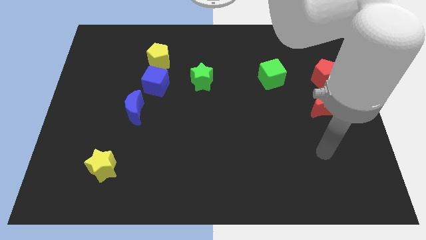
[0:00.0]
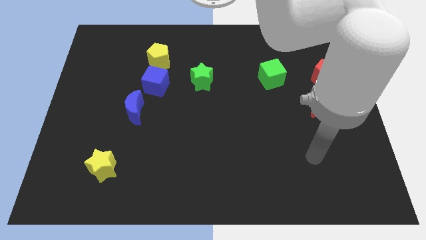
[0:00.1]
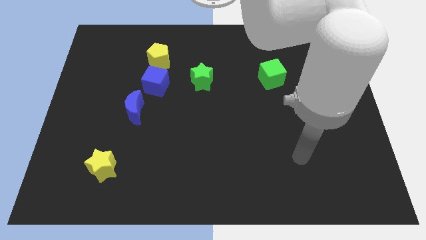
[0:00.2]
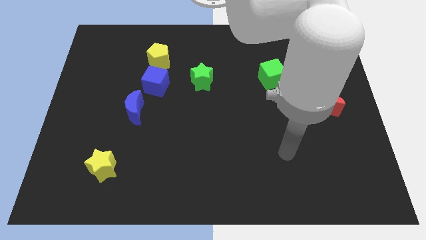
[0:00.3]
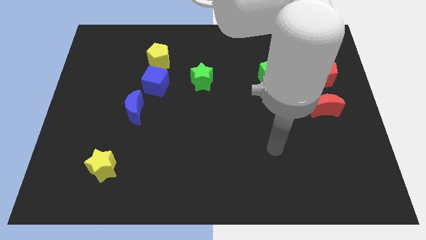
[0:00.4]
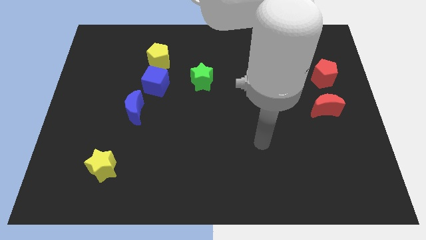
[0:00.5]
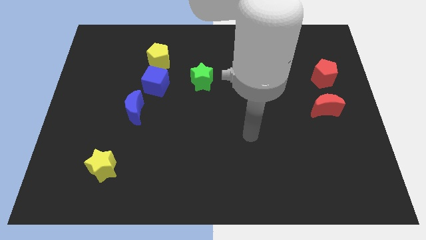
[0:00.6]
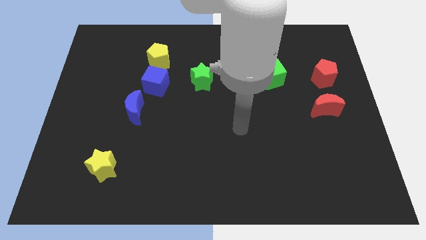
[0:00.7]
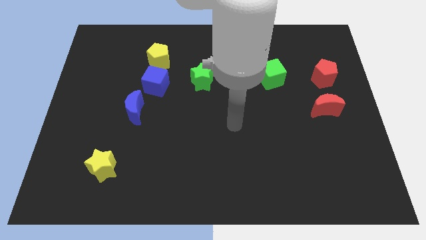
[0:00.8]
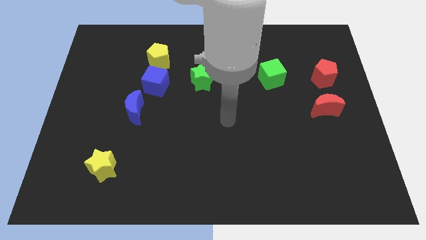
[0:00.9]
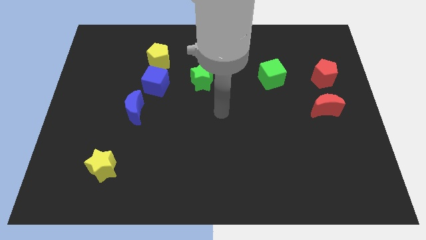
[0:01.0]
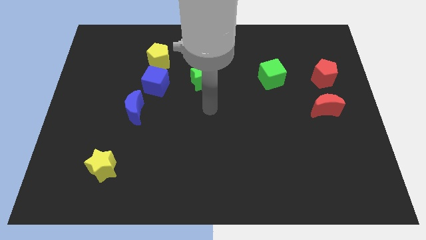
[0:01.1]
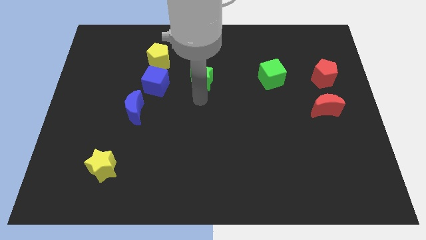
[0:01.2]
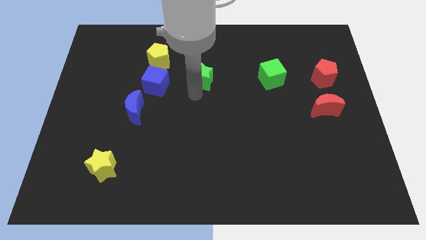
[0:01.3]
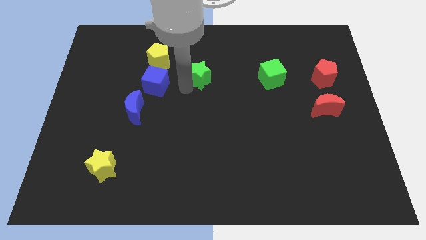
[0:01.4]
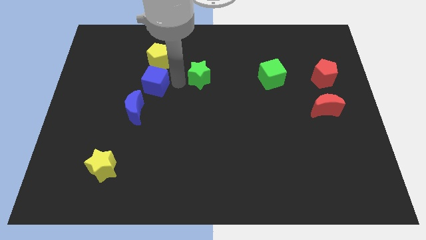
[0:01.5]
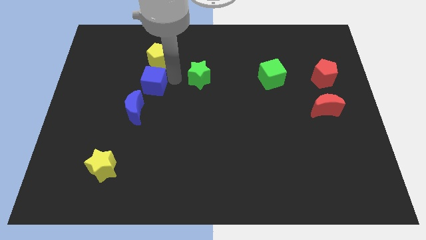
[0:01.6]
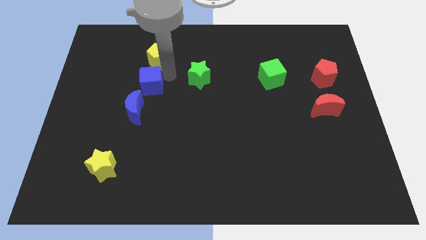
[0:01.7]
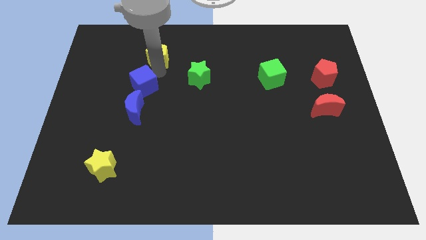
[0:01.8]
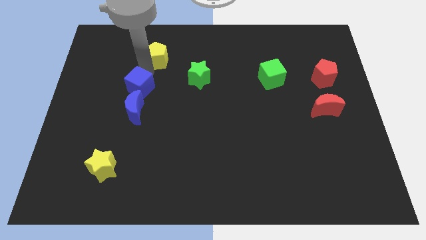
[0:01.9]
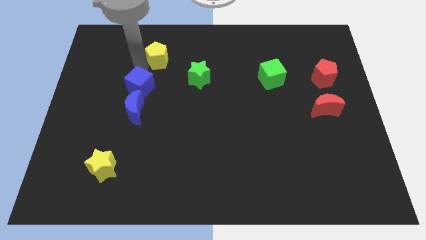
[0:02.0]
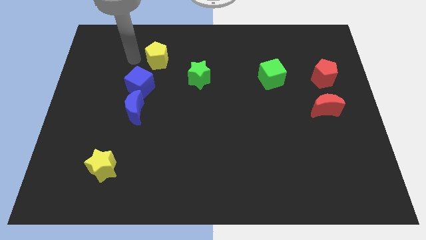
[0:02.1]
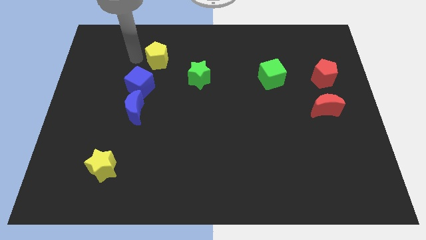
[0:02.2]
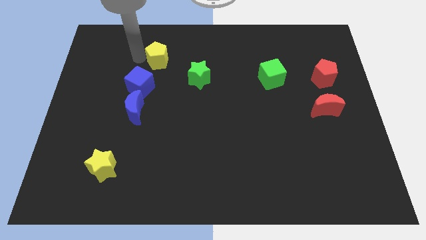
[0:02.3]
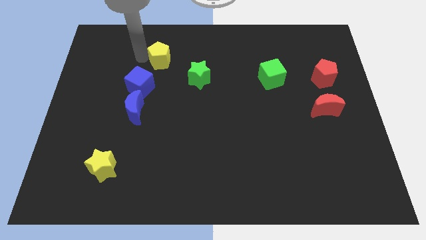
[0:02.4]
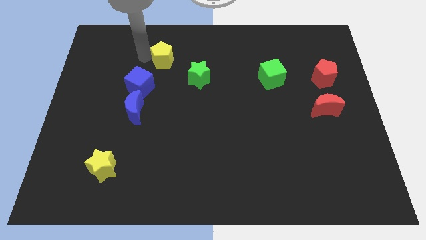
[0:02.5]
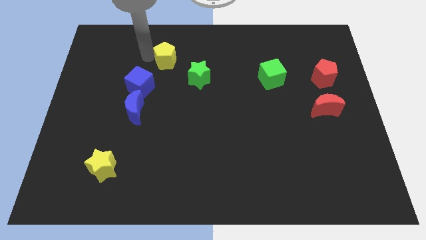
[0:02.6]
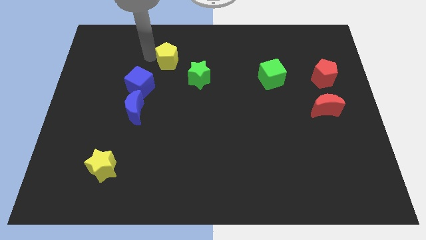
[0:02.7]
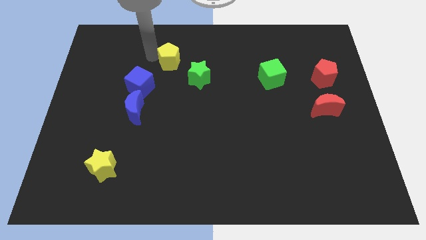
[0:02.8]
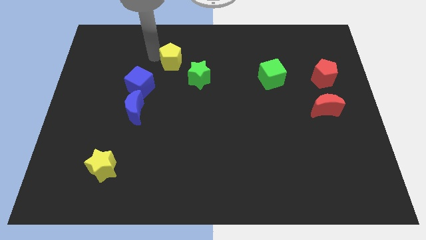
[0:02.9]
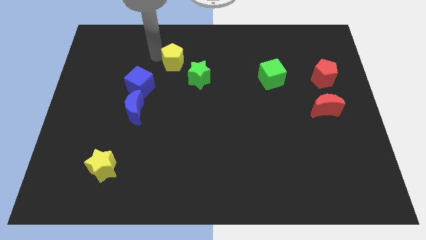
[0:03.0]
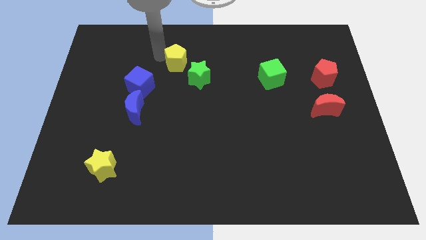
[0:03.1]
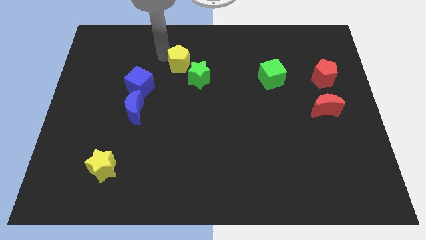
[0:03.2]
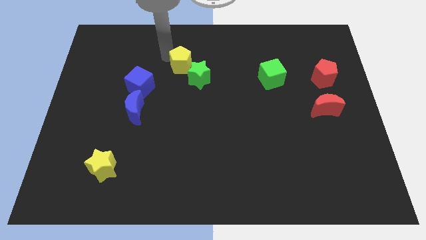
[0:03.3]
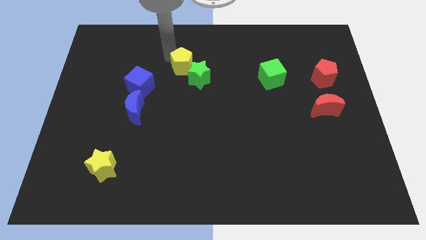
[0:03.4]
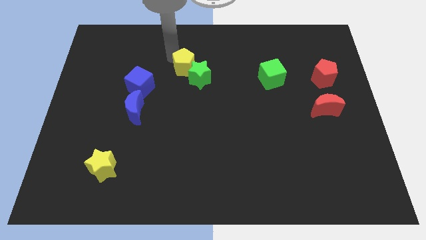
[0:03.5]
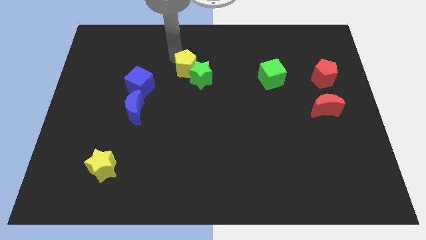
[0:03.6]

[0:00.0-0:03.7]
move the yellow pentagon to the right a little bit

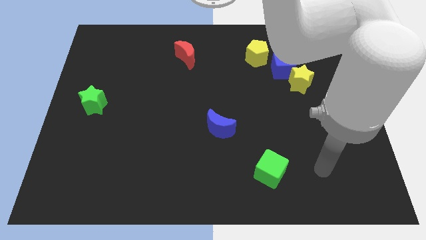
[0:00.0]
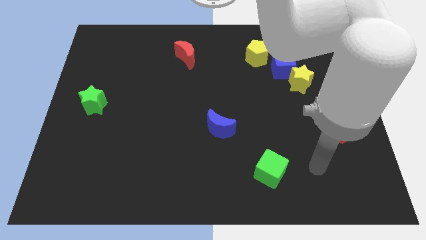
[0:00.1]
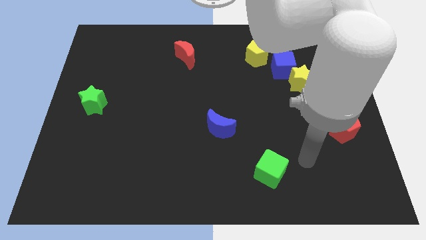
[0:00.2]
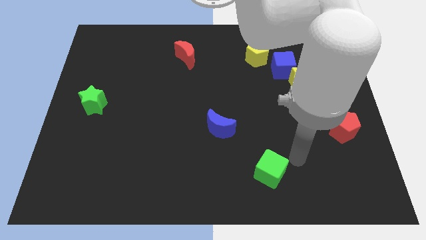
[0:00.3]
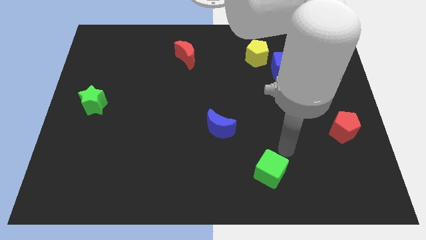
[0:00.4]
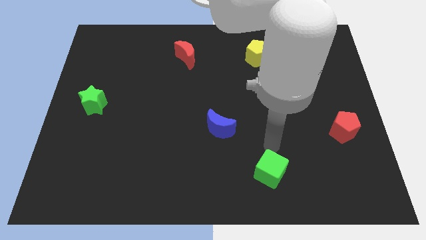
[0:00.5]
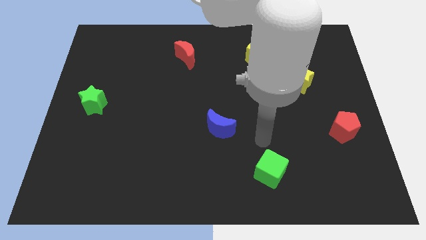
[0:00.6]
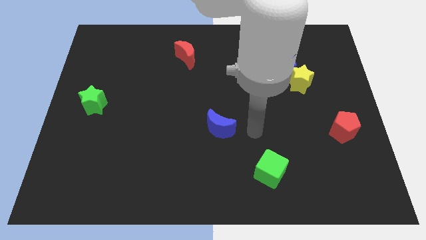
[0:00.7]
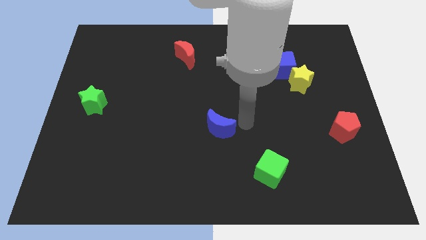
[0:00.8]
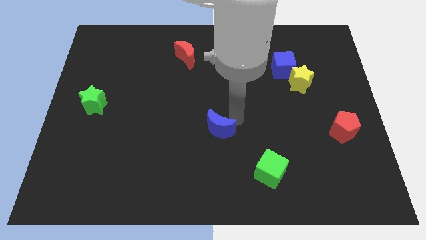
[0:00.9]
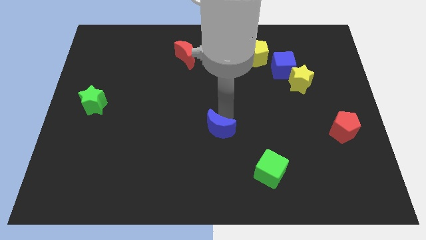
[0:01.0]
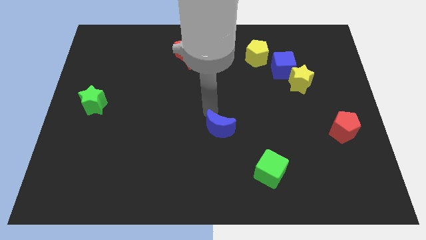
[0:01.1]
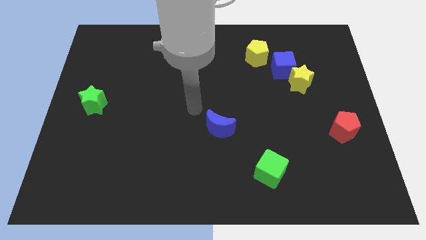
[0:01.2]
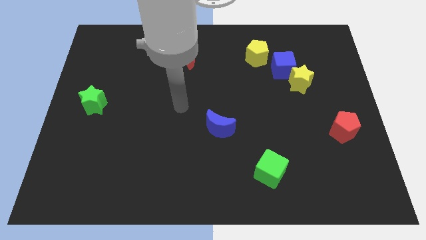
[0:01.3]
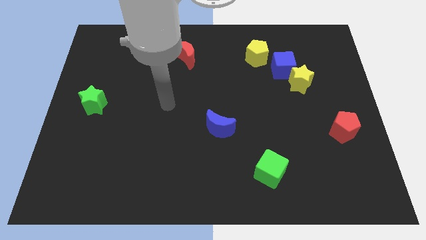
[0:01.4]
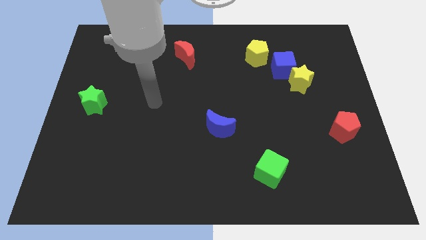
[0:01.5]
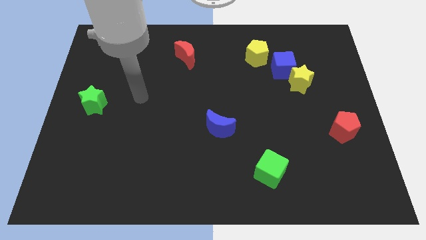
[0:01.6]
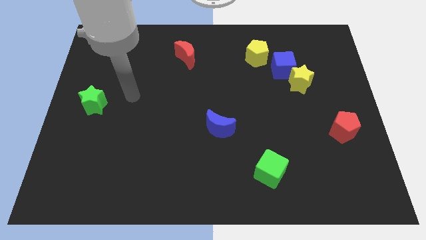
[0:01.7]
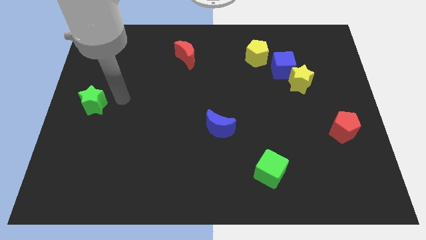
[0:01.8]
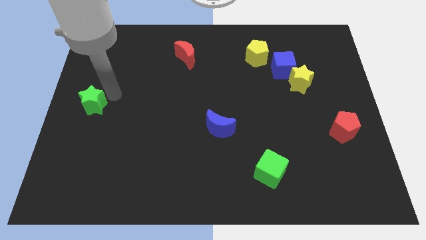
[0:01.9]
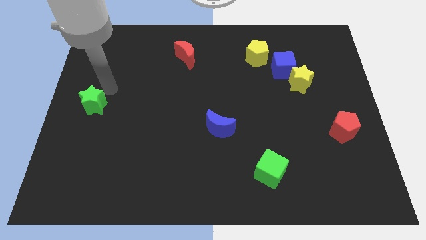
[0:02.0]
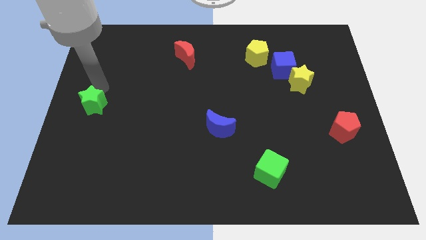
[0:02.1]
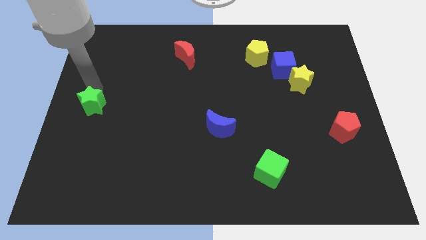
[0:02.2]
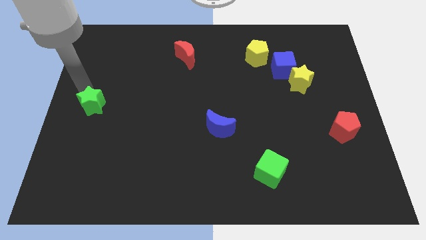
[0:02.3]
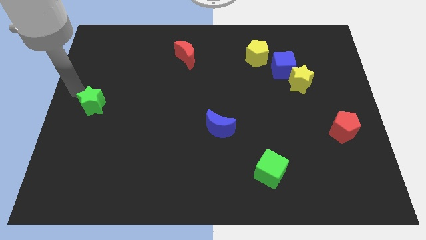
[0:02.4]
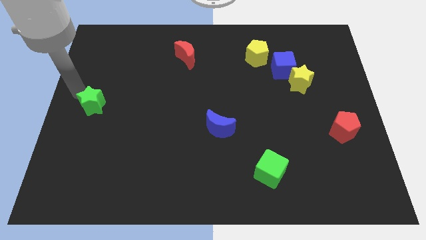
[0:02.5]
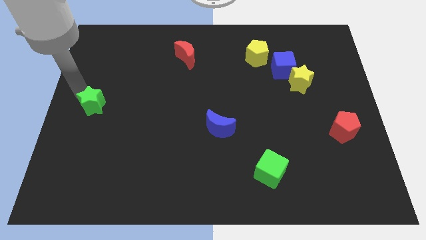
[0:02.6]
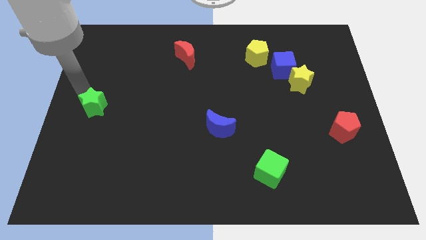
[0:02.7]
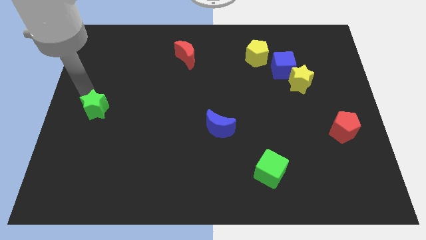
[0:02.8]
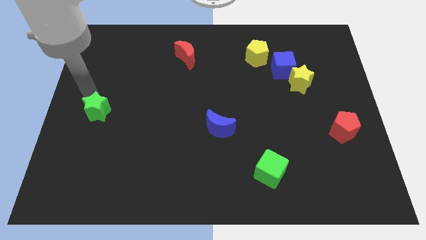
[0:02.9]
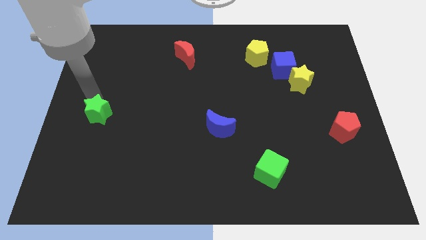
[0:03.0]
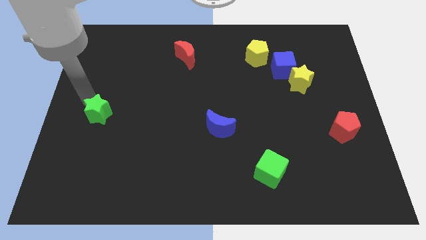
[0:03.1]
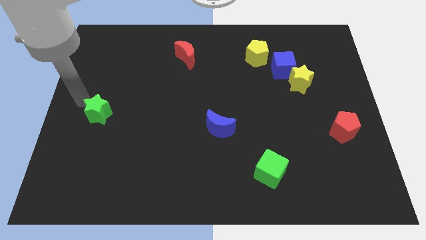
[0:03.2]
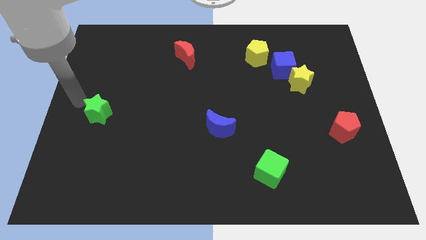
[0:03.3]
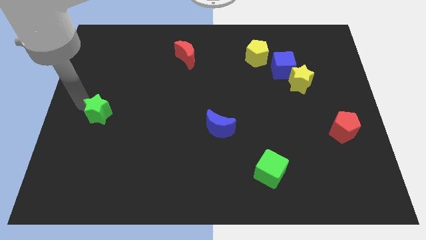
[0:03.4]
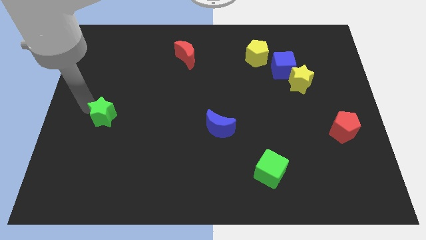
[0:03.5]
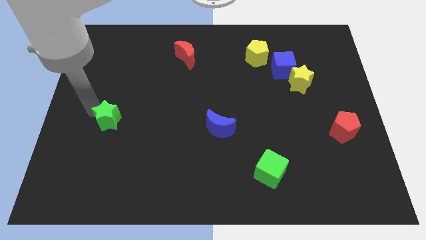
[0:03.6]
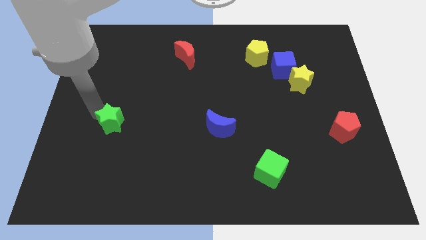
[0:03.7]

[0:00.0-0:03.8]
slightly move the green star down and right diagonally

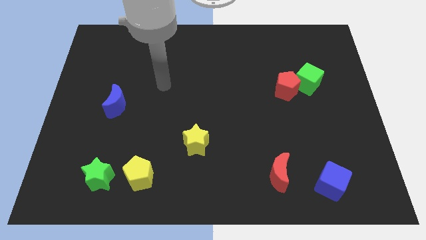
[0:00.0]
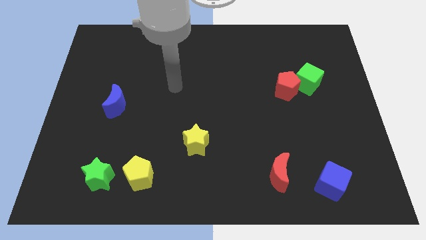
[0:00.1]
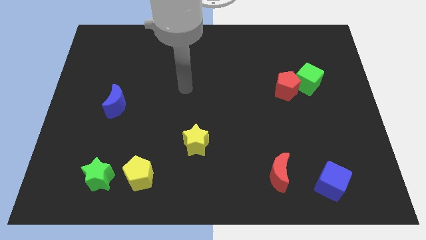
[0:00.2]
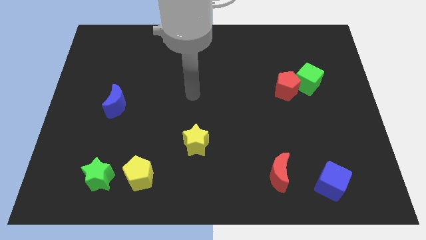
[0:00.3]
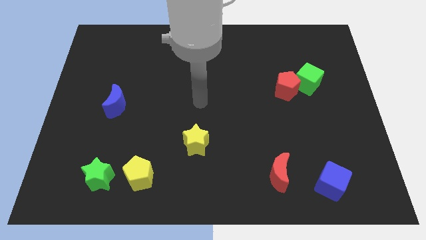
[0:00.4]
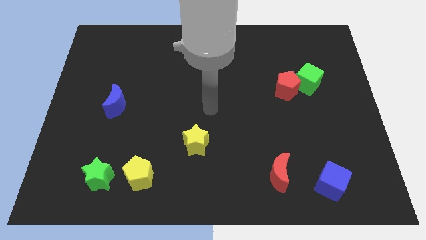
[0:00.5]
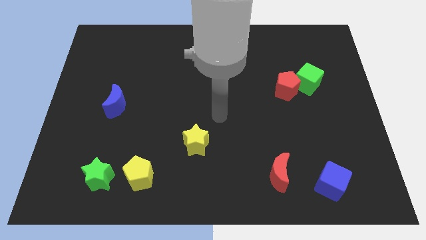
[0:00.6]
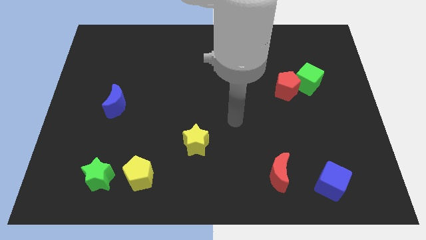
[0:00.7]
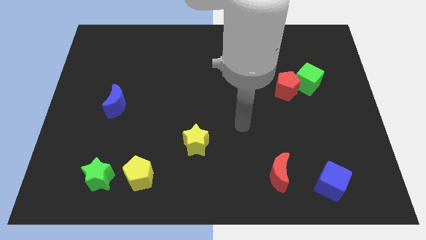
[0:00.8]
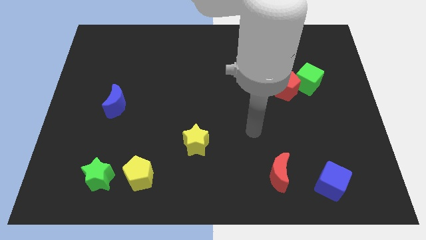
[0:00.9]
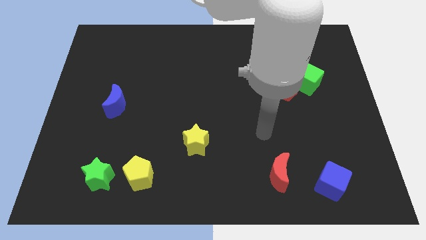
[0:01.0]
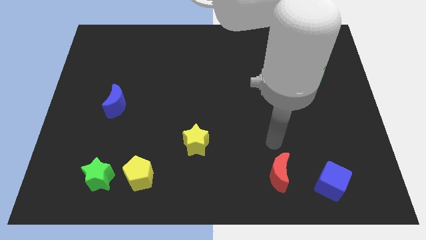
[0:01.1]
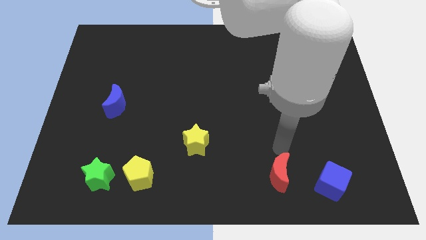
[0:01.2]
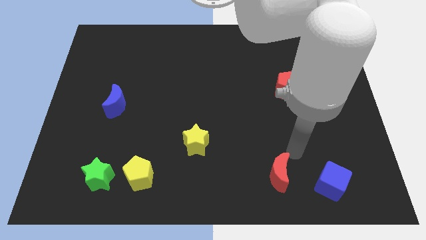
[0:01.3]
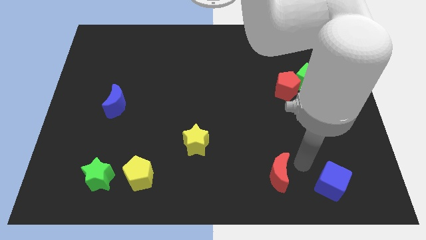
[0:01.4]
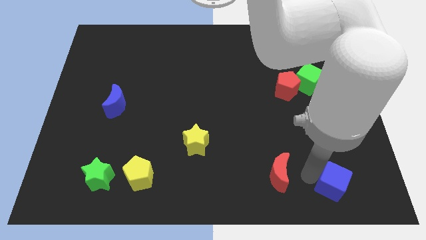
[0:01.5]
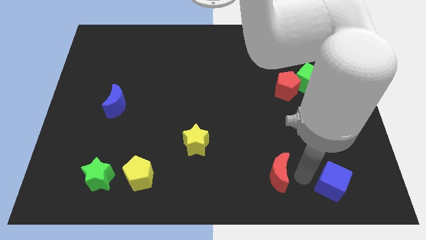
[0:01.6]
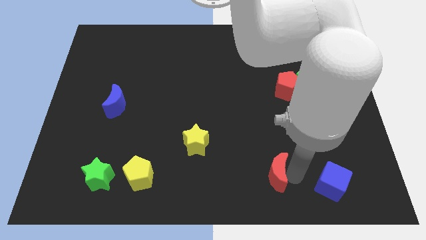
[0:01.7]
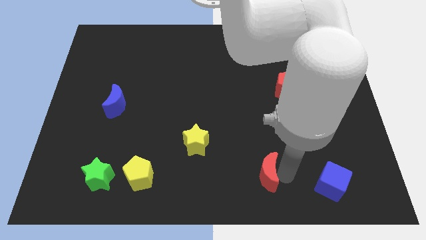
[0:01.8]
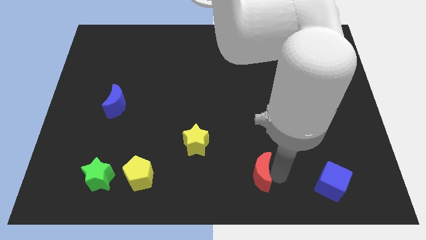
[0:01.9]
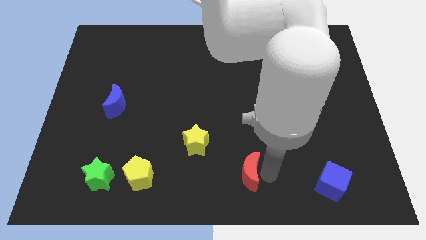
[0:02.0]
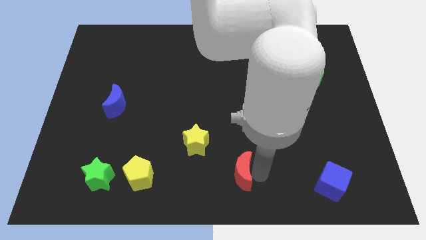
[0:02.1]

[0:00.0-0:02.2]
slide the red moon left a little
